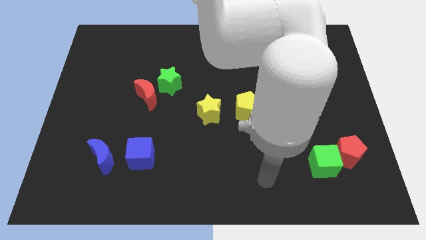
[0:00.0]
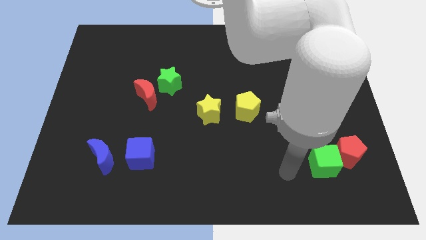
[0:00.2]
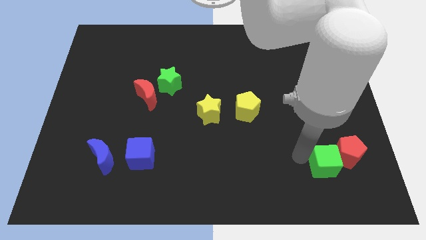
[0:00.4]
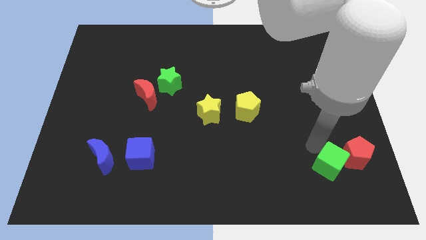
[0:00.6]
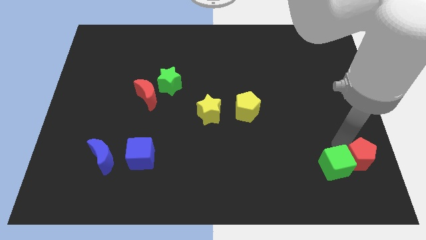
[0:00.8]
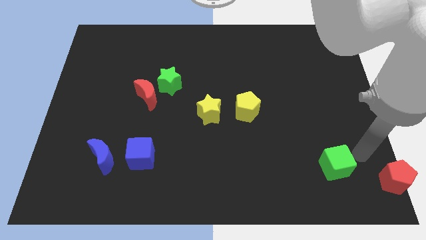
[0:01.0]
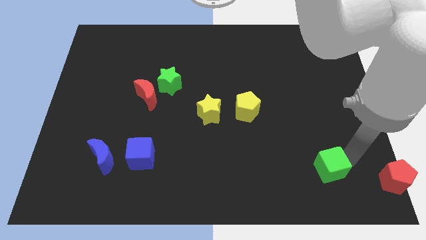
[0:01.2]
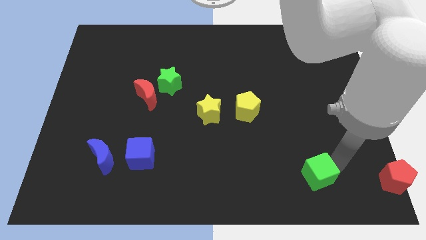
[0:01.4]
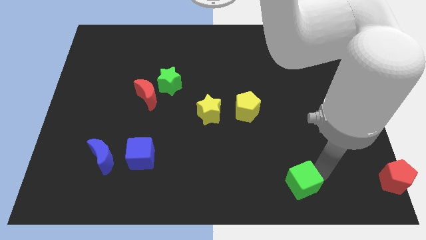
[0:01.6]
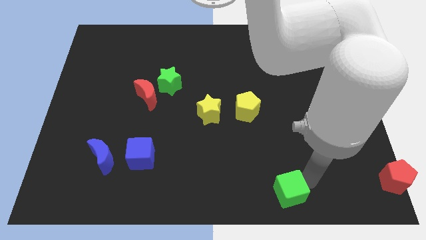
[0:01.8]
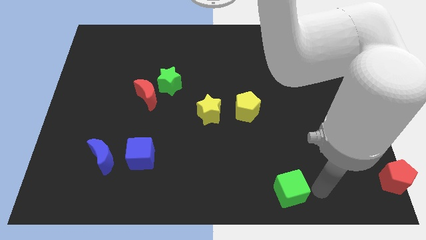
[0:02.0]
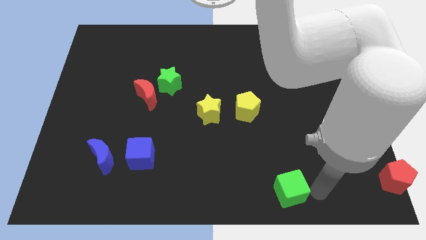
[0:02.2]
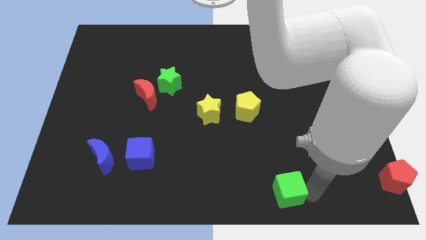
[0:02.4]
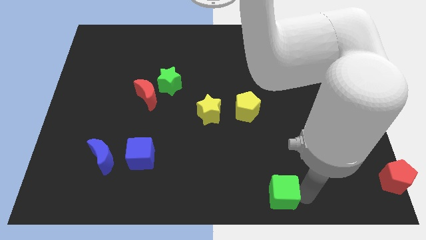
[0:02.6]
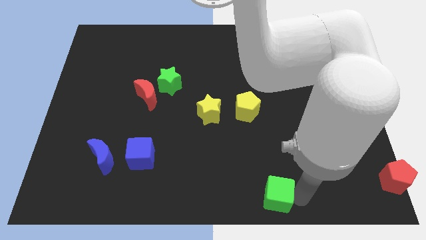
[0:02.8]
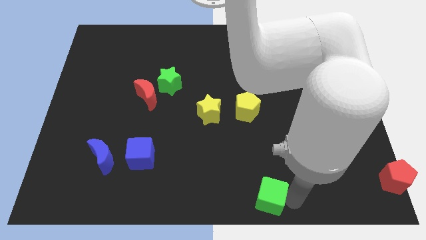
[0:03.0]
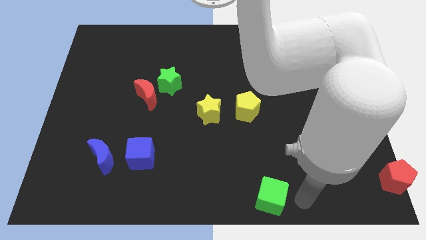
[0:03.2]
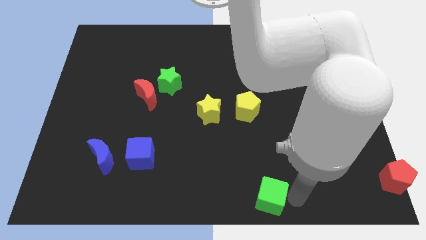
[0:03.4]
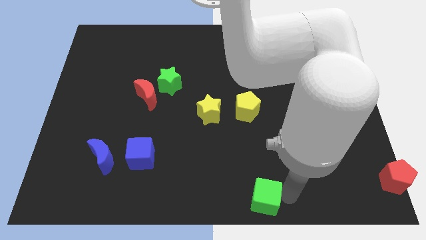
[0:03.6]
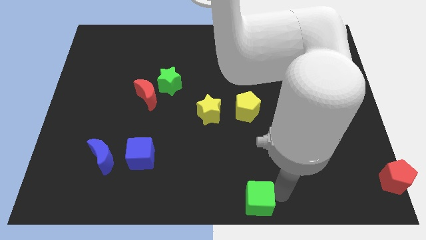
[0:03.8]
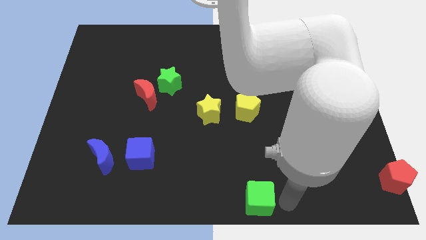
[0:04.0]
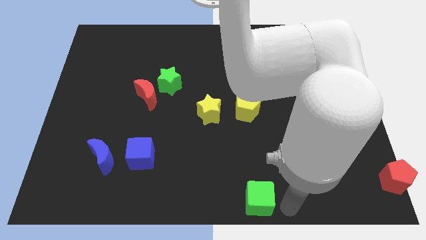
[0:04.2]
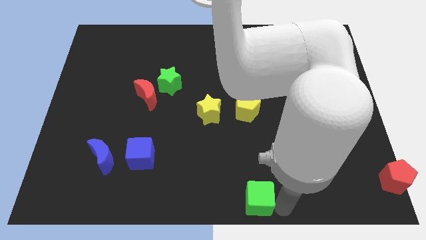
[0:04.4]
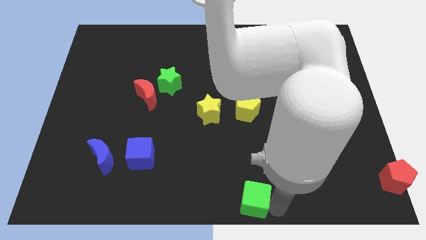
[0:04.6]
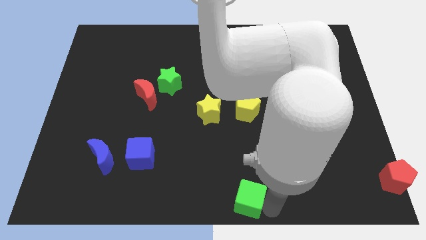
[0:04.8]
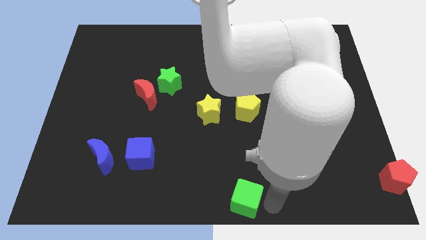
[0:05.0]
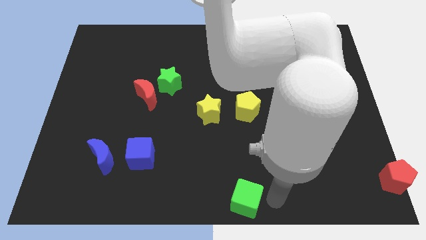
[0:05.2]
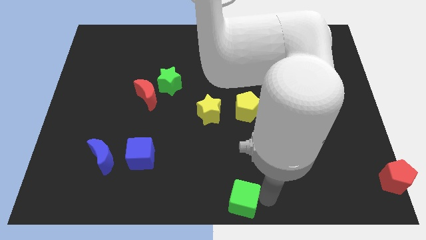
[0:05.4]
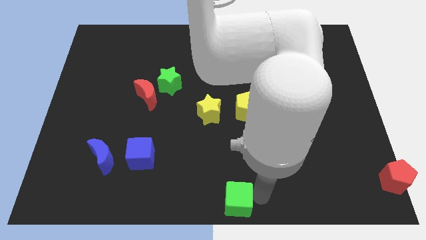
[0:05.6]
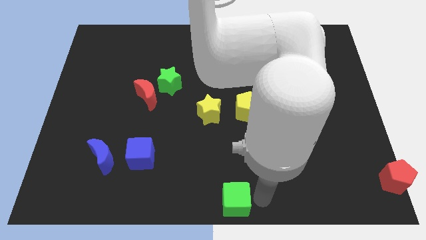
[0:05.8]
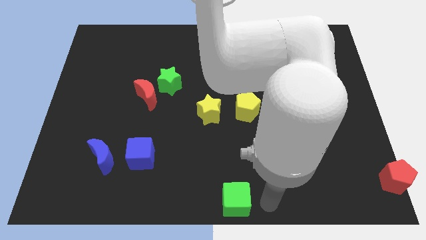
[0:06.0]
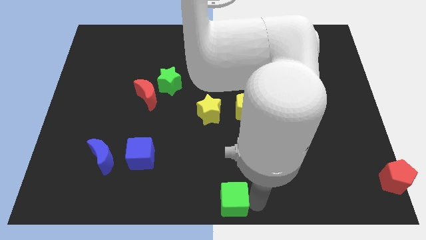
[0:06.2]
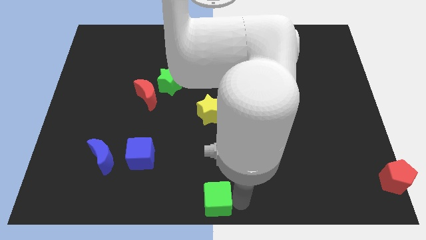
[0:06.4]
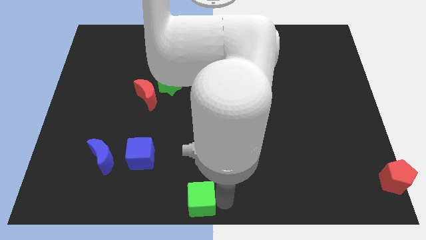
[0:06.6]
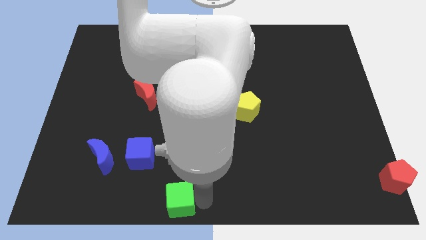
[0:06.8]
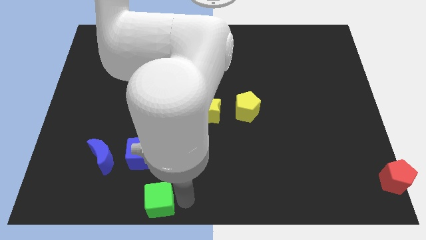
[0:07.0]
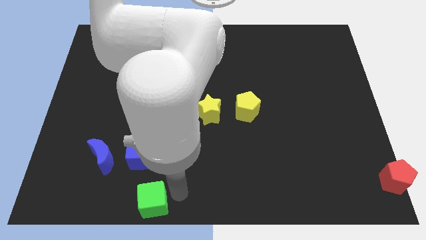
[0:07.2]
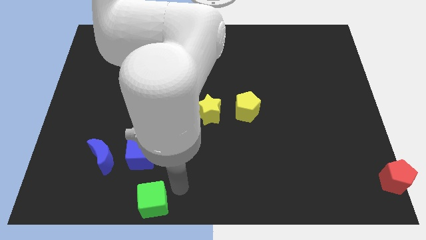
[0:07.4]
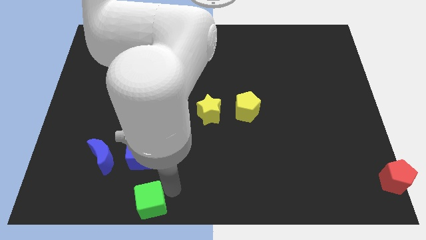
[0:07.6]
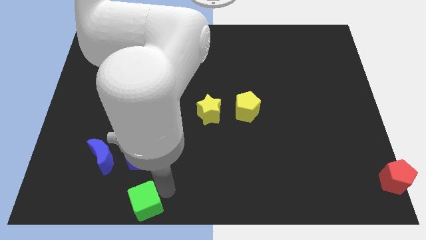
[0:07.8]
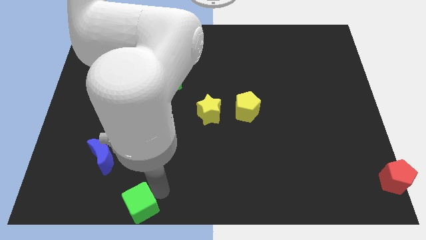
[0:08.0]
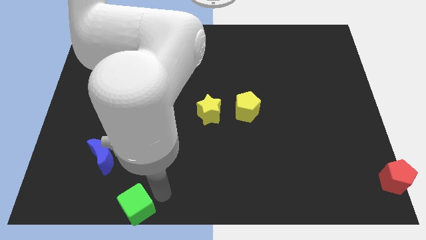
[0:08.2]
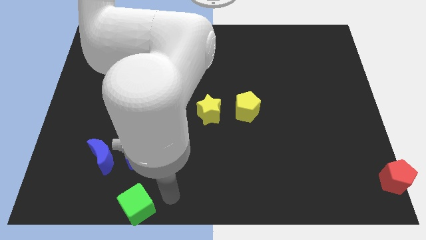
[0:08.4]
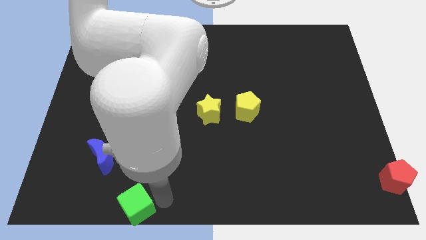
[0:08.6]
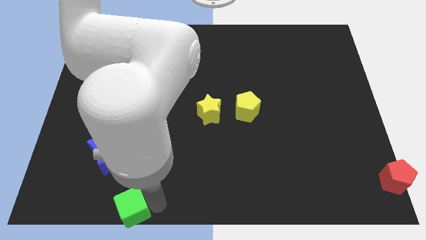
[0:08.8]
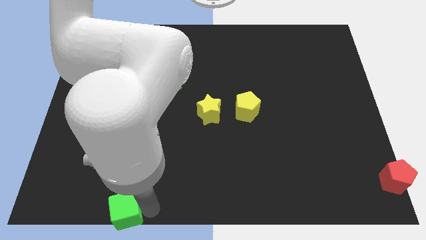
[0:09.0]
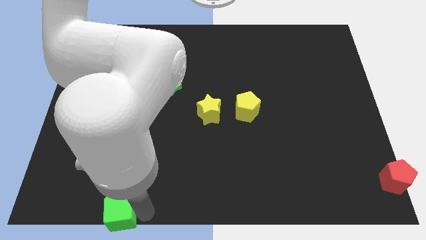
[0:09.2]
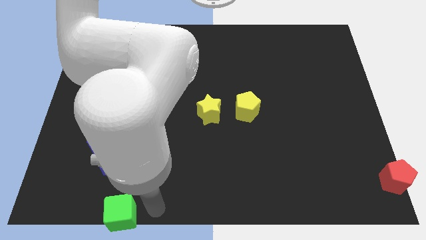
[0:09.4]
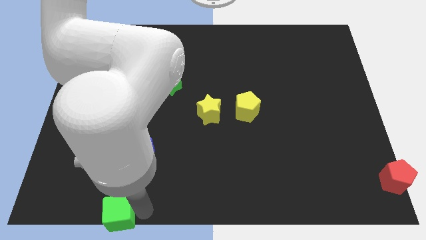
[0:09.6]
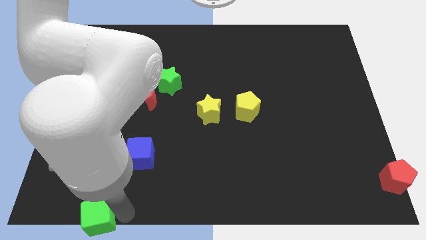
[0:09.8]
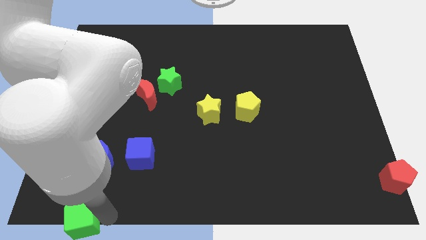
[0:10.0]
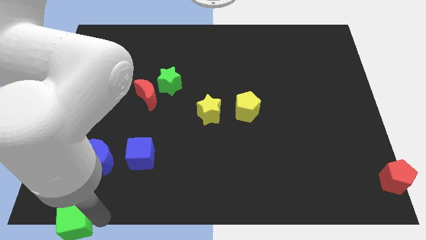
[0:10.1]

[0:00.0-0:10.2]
push the green cube to the bottom left of the board

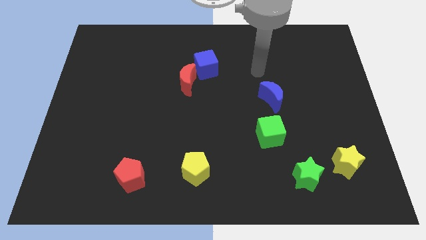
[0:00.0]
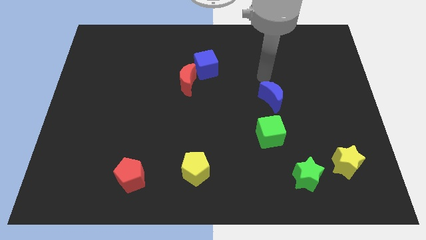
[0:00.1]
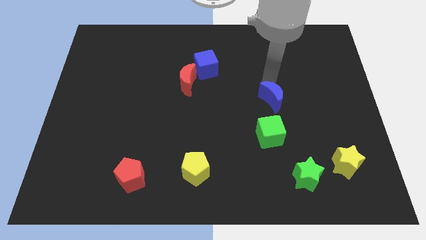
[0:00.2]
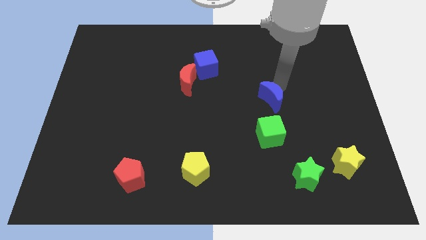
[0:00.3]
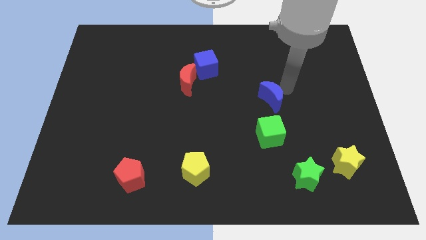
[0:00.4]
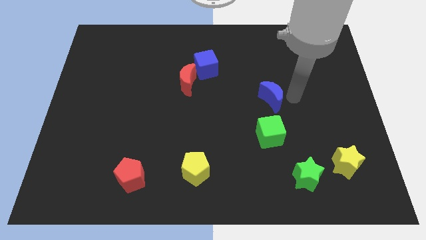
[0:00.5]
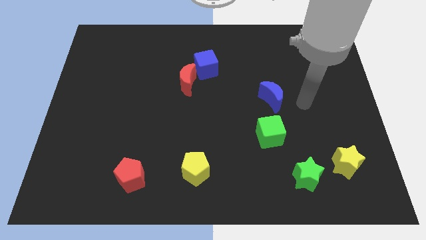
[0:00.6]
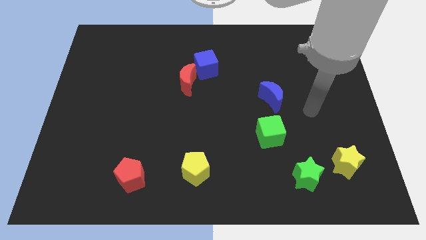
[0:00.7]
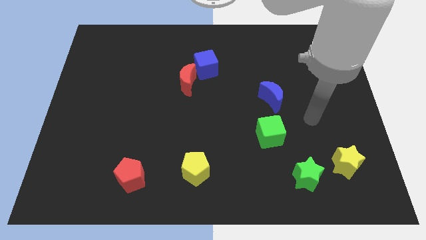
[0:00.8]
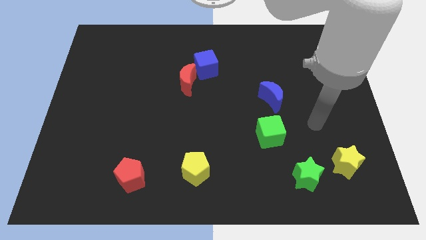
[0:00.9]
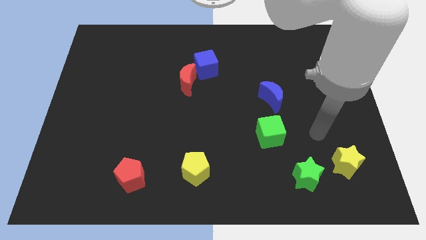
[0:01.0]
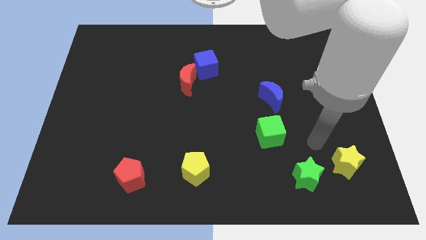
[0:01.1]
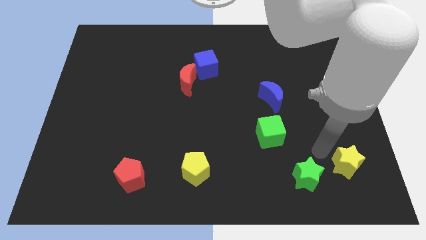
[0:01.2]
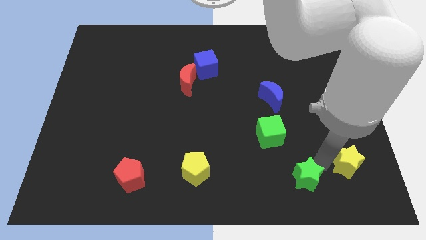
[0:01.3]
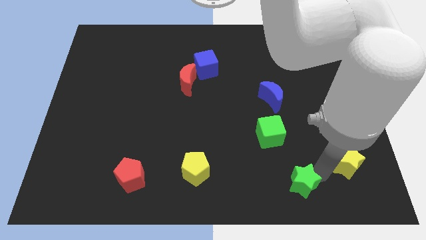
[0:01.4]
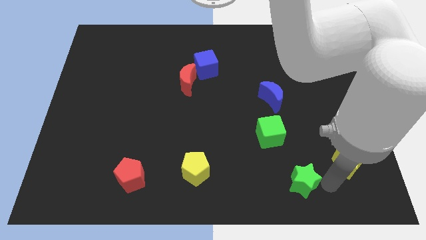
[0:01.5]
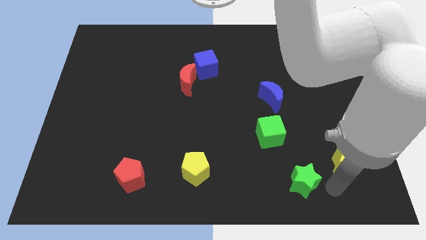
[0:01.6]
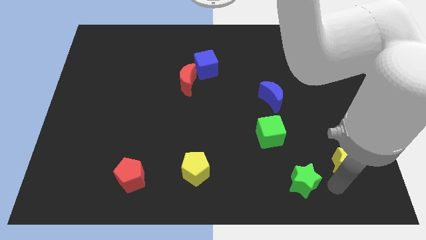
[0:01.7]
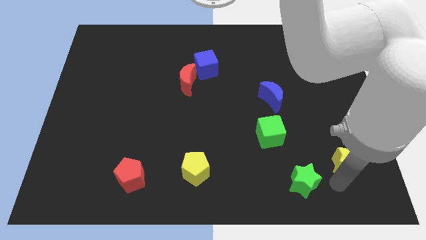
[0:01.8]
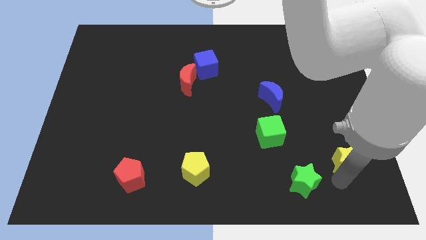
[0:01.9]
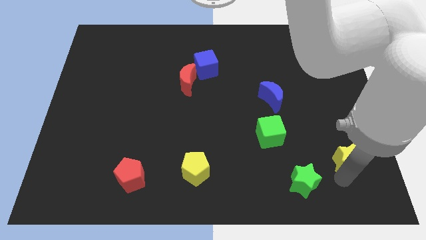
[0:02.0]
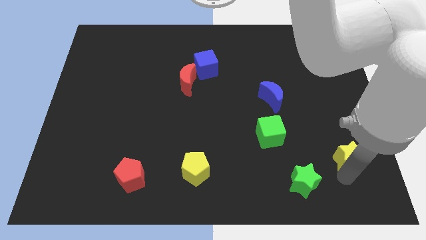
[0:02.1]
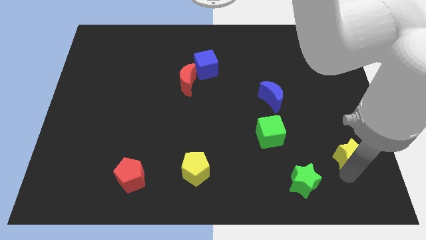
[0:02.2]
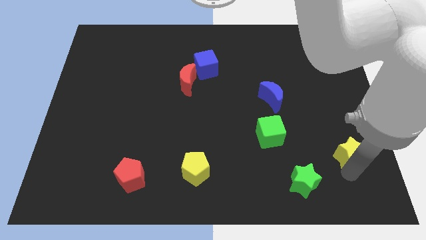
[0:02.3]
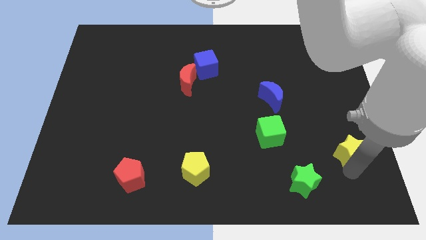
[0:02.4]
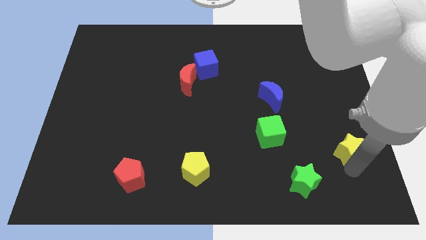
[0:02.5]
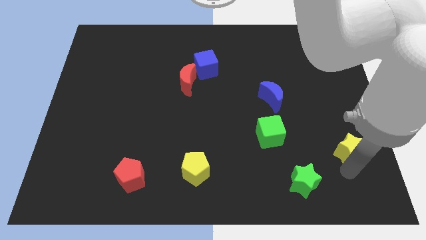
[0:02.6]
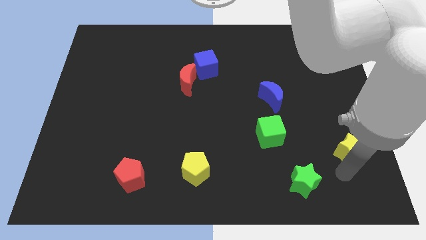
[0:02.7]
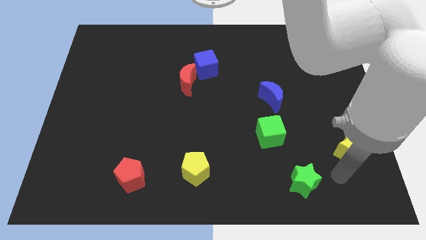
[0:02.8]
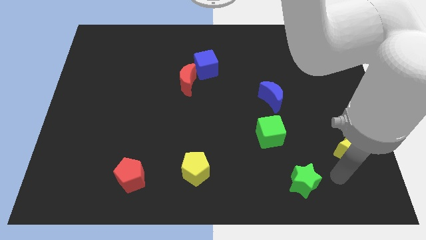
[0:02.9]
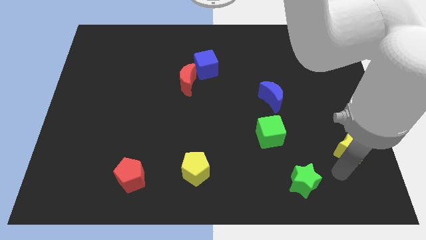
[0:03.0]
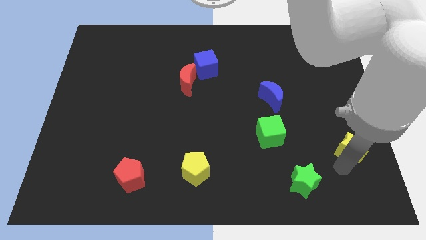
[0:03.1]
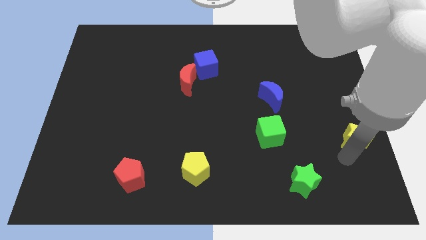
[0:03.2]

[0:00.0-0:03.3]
put the yellow star to the right side
